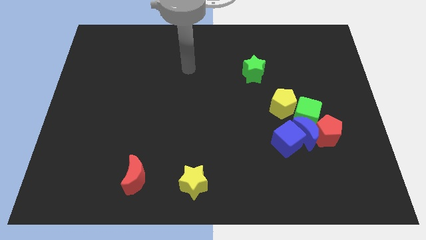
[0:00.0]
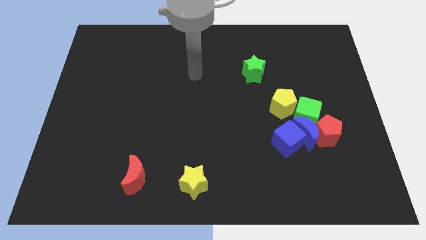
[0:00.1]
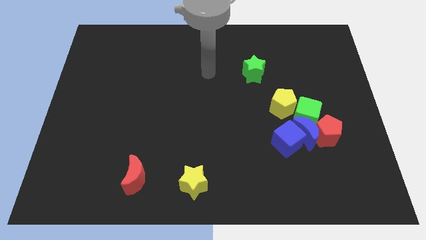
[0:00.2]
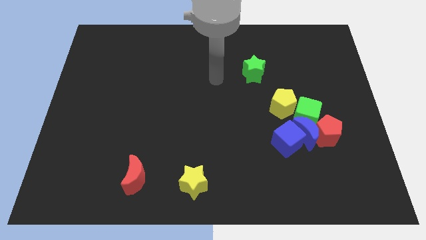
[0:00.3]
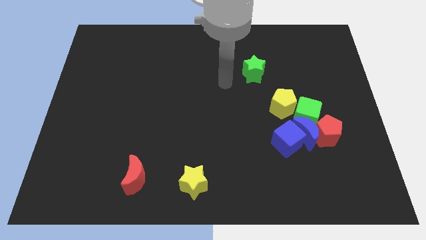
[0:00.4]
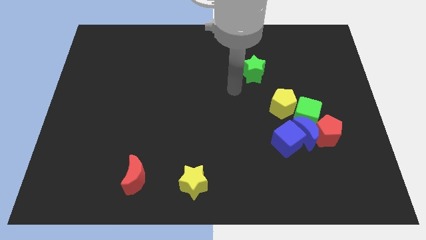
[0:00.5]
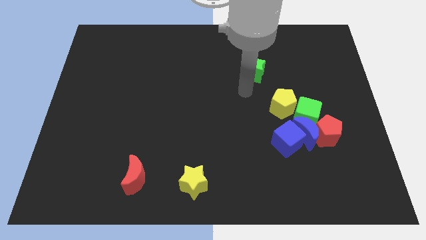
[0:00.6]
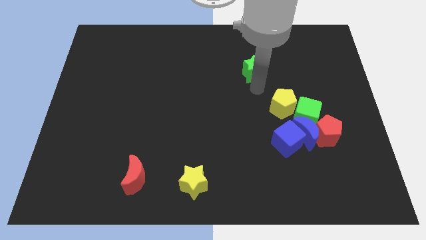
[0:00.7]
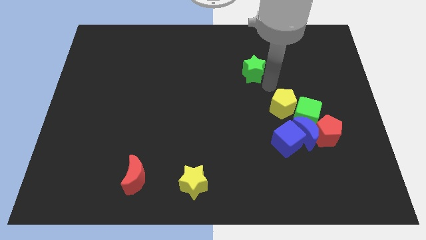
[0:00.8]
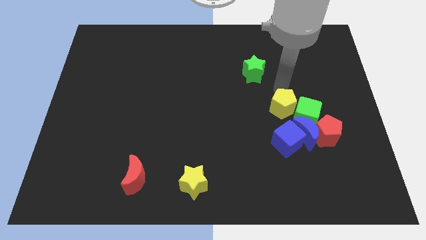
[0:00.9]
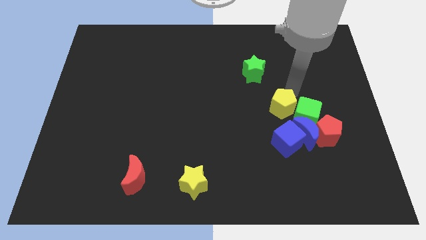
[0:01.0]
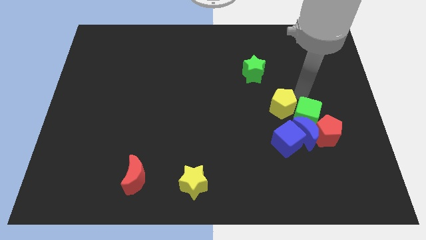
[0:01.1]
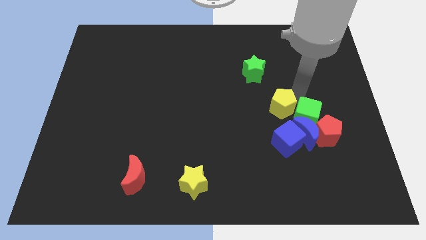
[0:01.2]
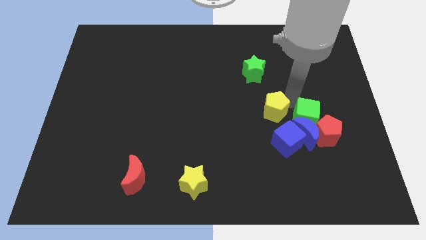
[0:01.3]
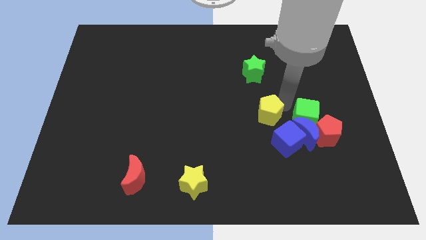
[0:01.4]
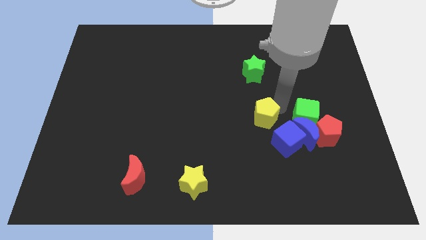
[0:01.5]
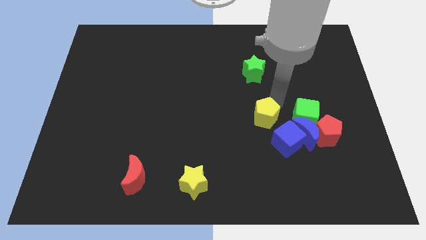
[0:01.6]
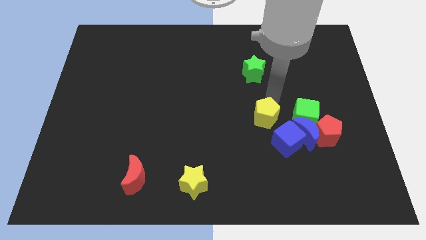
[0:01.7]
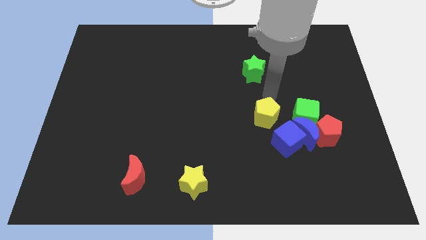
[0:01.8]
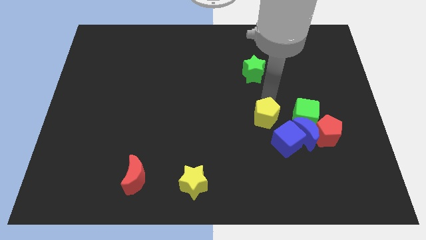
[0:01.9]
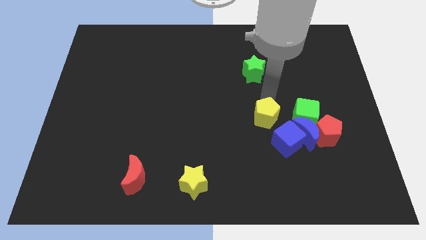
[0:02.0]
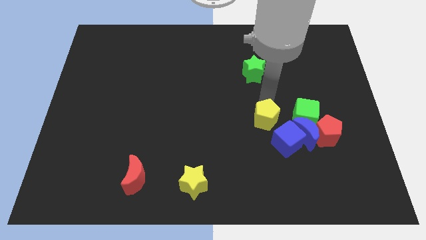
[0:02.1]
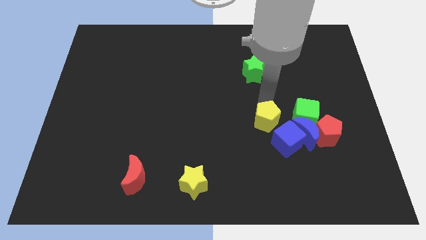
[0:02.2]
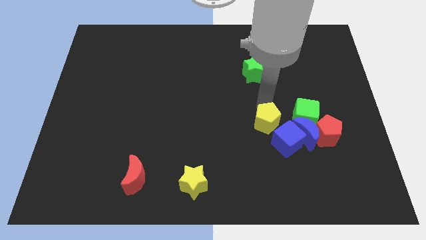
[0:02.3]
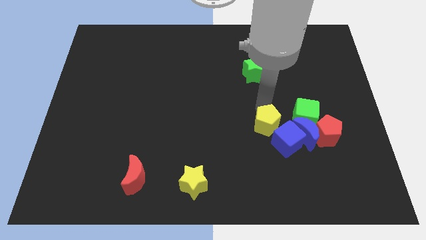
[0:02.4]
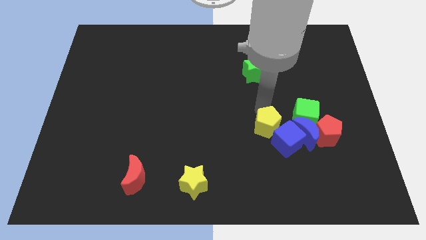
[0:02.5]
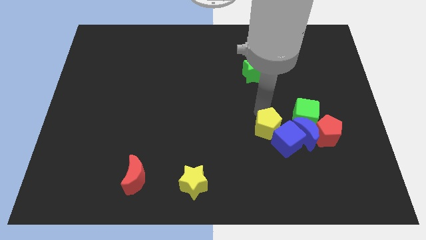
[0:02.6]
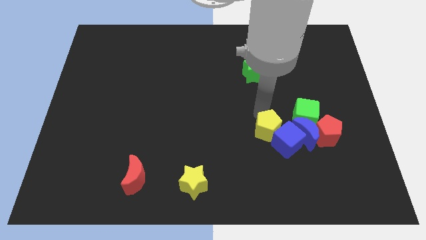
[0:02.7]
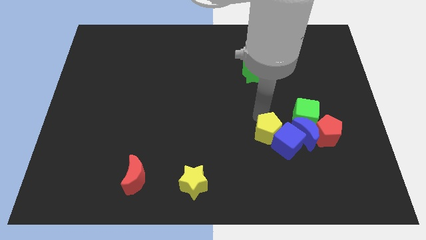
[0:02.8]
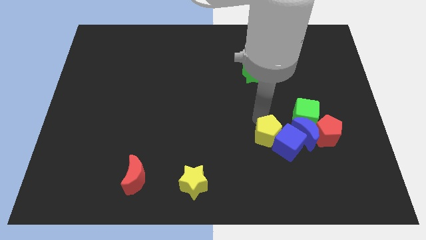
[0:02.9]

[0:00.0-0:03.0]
move the yellow pentagon a little down

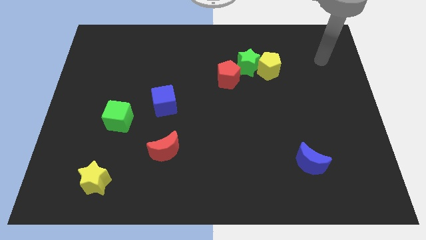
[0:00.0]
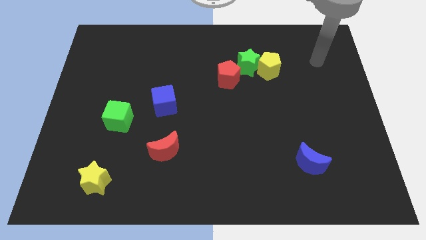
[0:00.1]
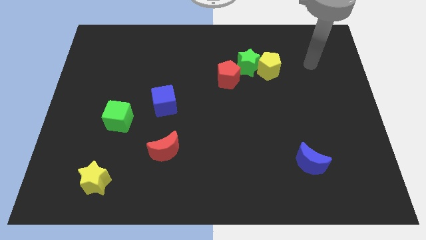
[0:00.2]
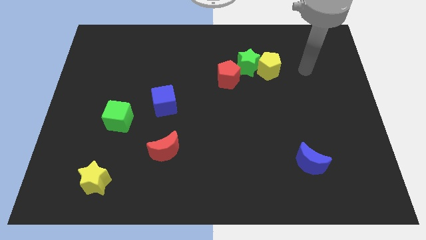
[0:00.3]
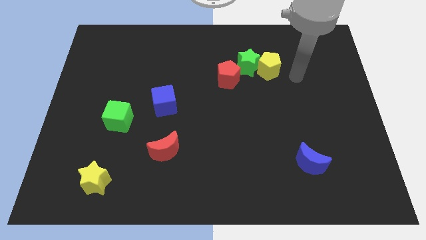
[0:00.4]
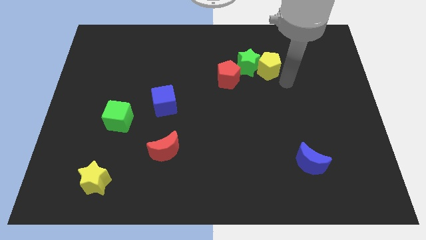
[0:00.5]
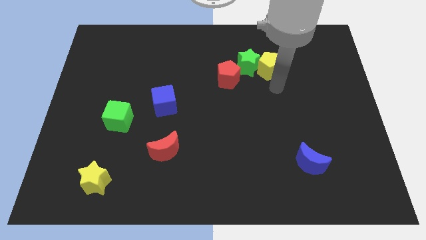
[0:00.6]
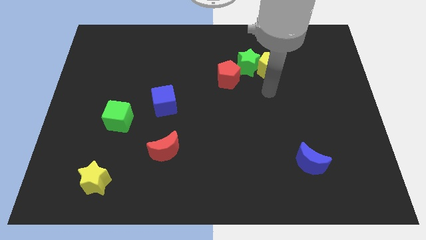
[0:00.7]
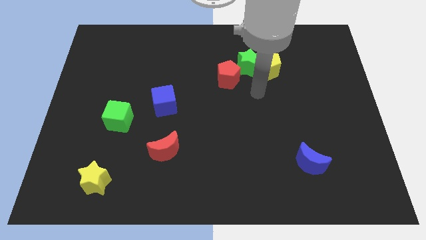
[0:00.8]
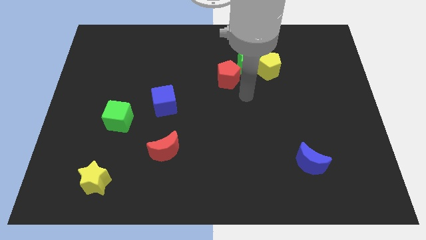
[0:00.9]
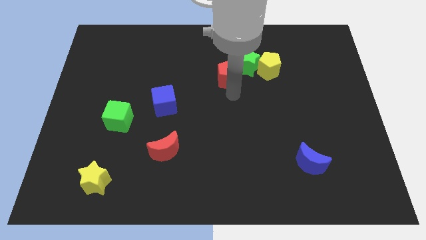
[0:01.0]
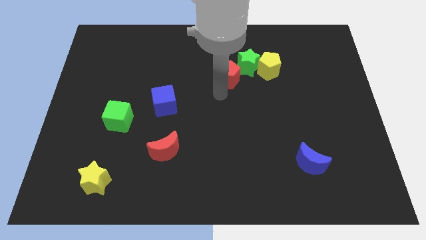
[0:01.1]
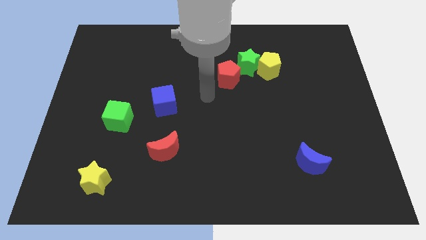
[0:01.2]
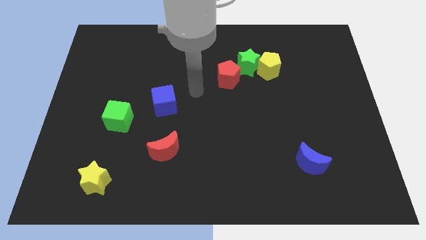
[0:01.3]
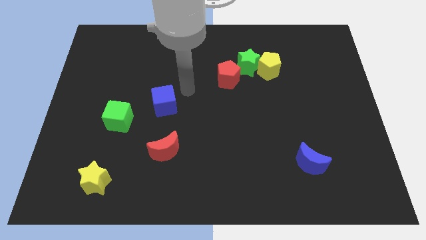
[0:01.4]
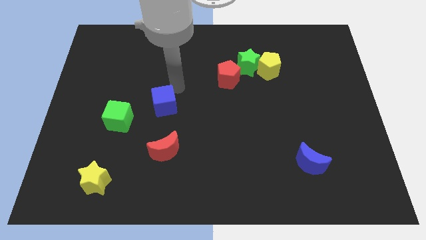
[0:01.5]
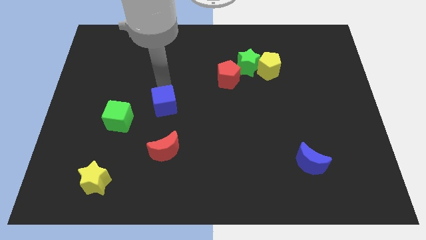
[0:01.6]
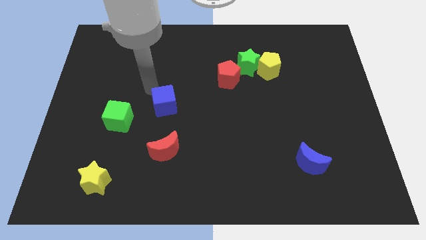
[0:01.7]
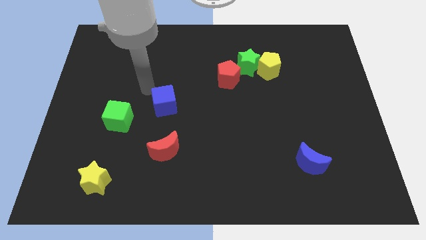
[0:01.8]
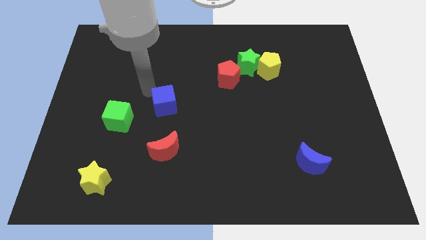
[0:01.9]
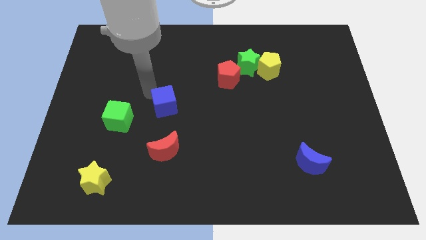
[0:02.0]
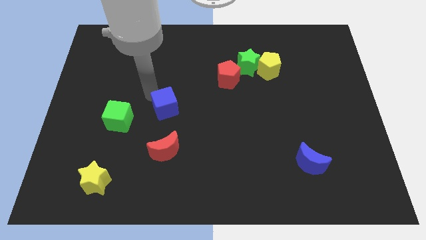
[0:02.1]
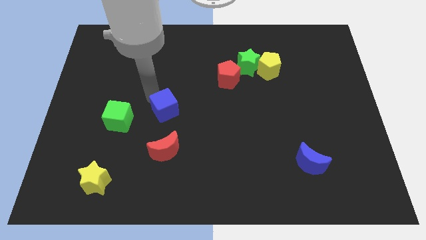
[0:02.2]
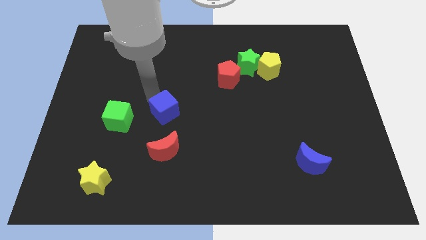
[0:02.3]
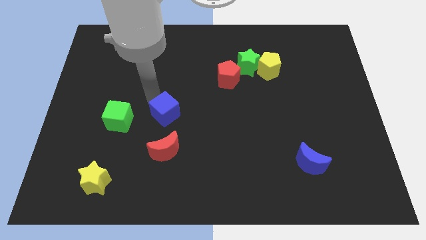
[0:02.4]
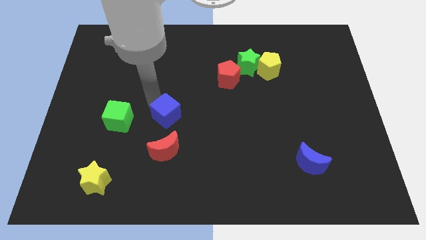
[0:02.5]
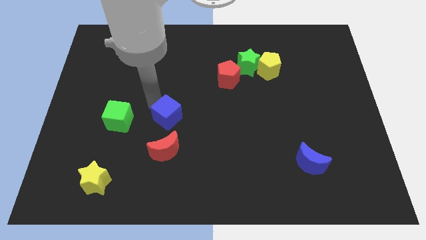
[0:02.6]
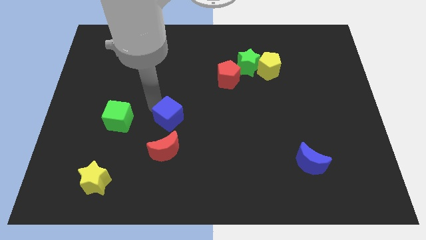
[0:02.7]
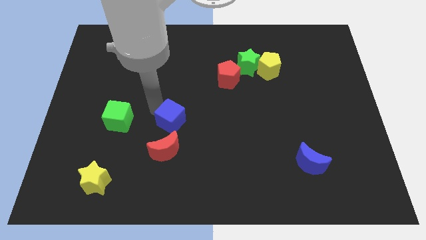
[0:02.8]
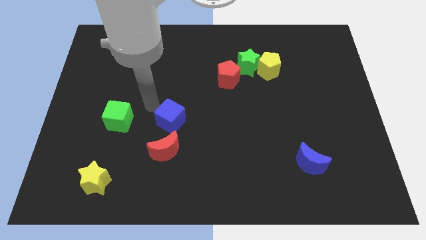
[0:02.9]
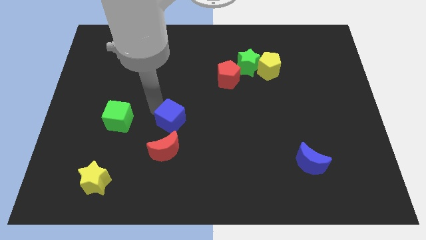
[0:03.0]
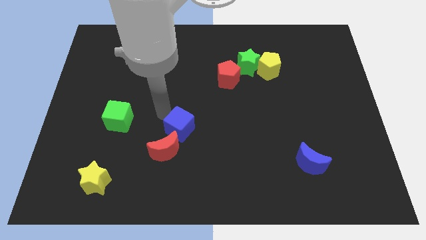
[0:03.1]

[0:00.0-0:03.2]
slide the blue cube a little bit diagonally down and right

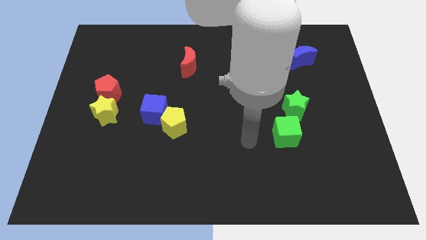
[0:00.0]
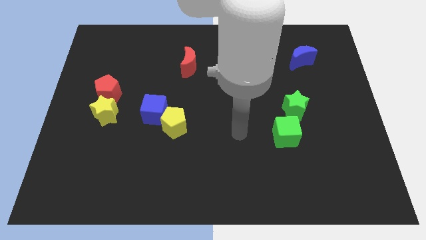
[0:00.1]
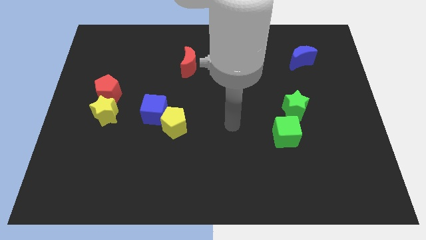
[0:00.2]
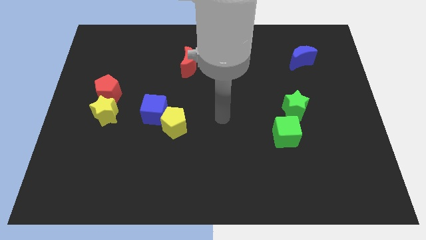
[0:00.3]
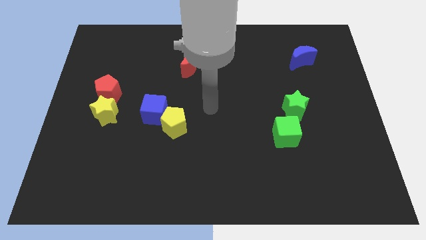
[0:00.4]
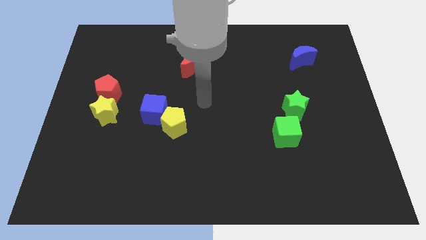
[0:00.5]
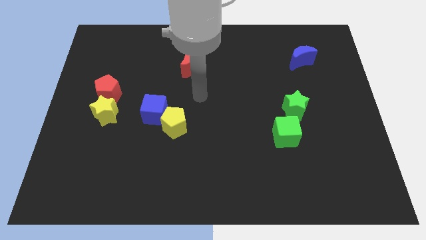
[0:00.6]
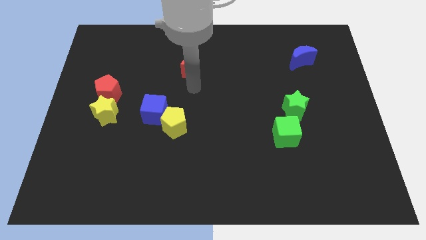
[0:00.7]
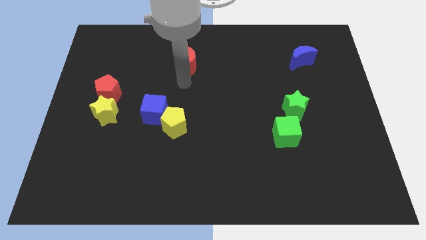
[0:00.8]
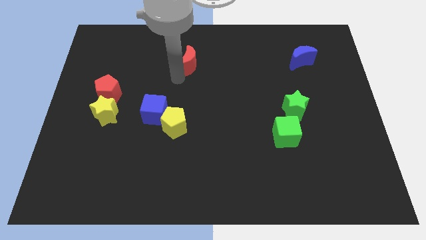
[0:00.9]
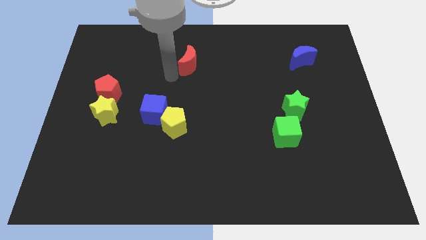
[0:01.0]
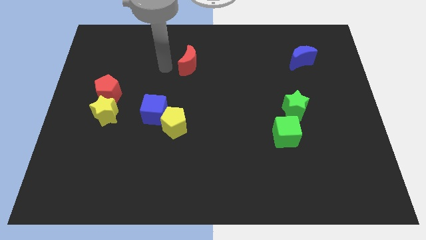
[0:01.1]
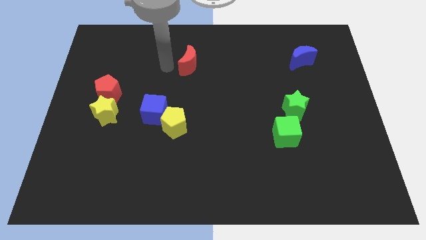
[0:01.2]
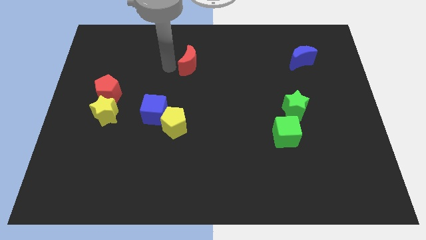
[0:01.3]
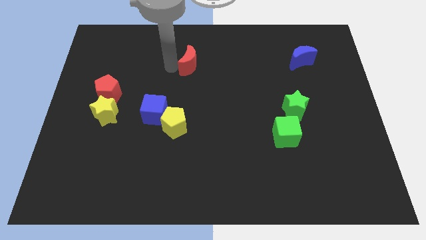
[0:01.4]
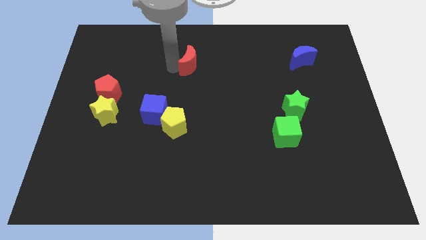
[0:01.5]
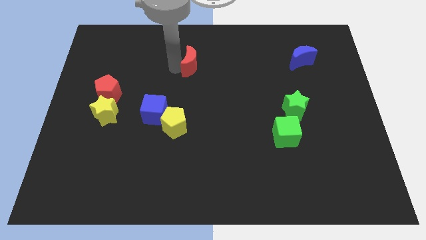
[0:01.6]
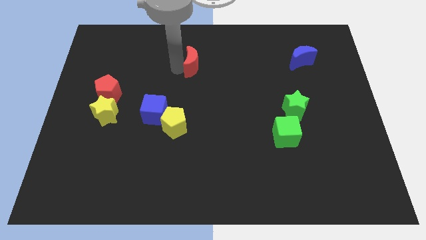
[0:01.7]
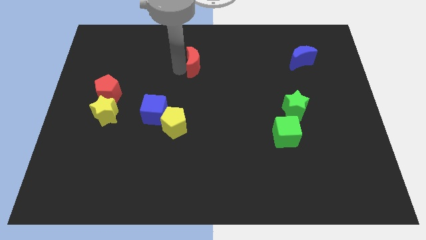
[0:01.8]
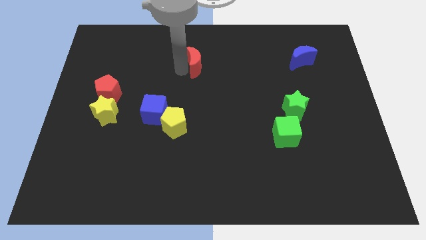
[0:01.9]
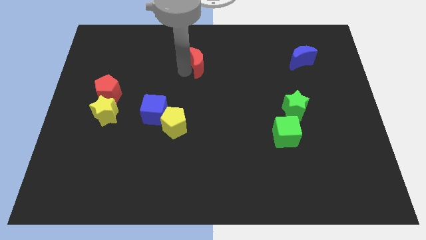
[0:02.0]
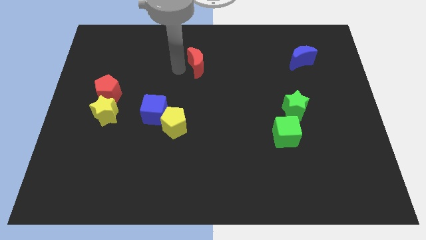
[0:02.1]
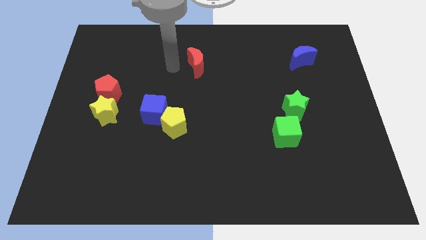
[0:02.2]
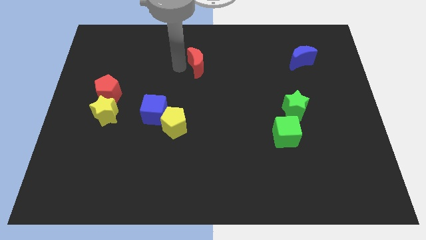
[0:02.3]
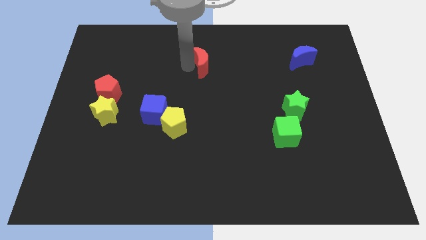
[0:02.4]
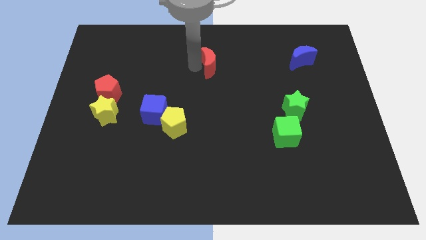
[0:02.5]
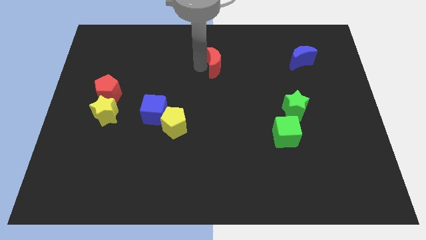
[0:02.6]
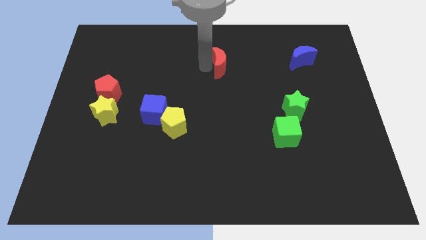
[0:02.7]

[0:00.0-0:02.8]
slightly slide the red moon to the right
